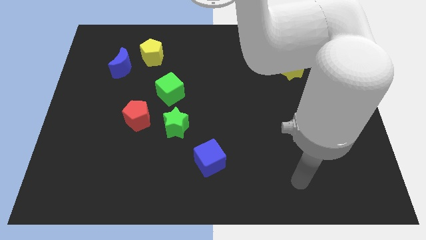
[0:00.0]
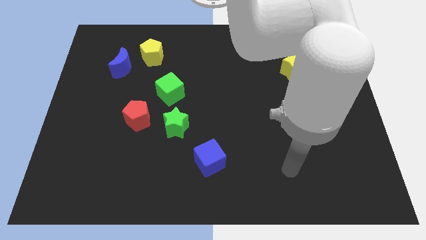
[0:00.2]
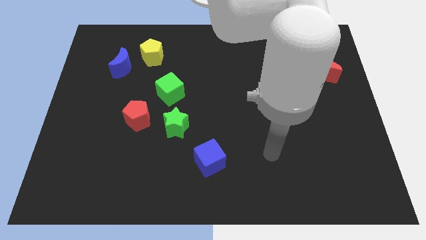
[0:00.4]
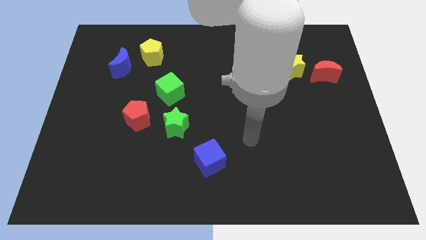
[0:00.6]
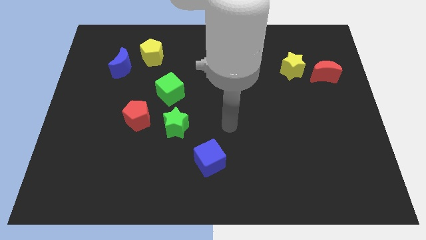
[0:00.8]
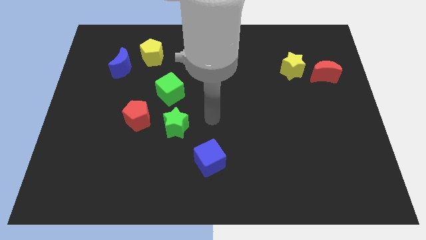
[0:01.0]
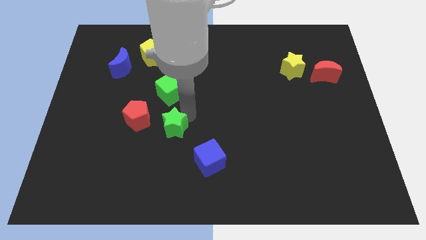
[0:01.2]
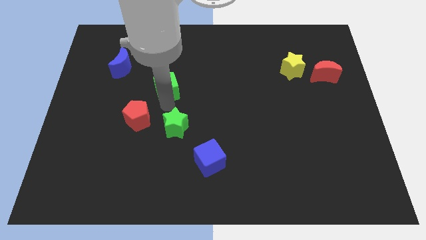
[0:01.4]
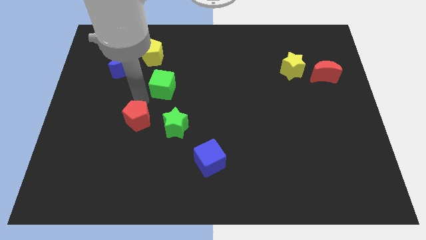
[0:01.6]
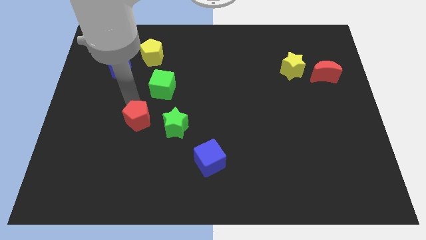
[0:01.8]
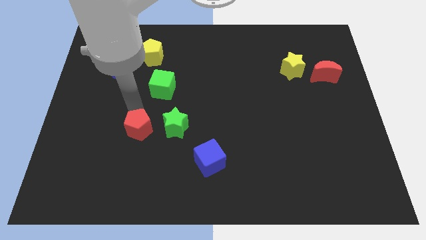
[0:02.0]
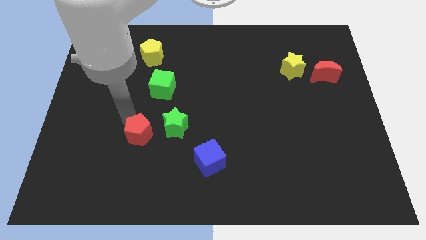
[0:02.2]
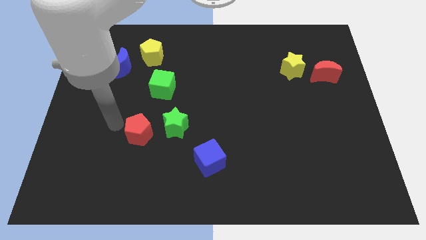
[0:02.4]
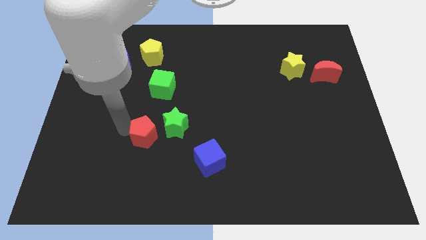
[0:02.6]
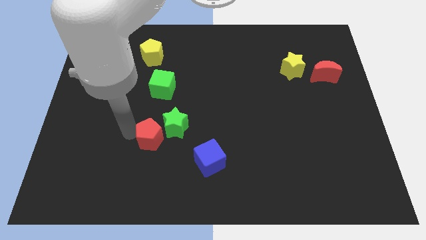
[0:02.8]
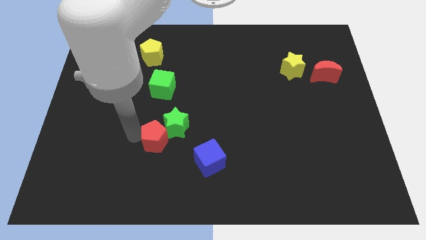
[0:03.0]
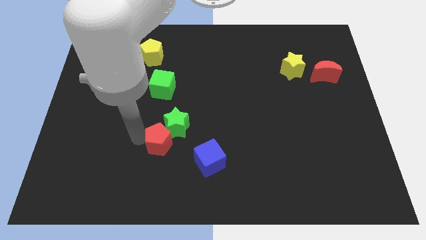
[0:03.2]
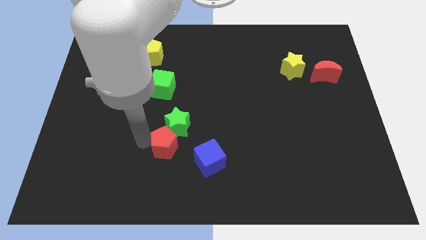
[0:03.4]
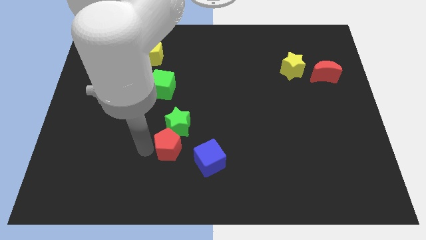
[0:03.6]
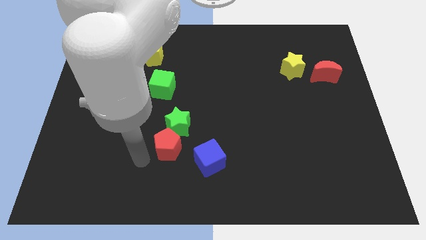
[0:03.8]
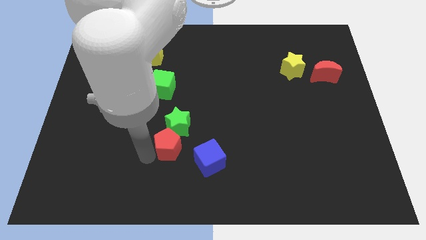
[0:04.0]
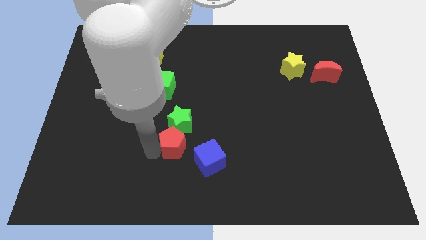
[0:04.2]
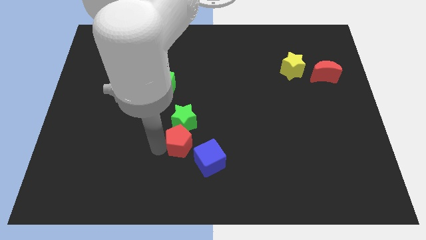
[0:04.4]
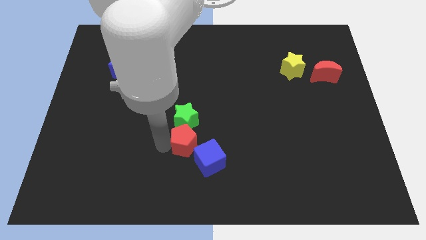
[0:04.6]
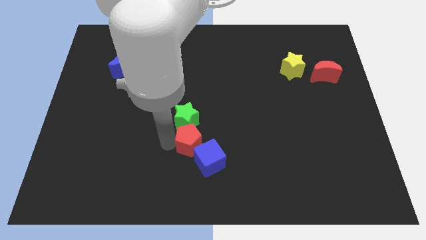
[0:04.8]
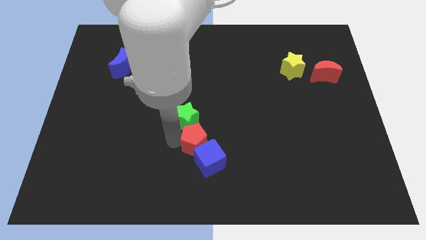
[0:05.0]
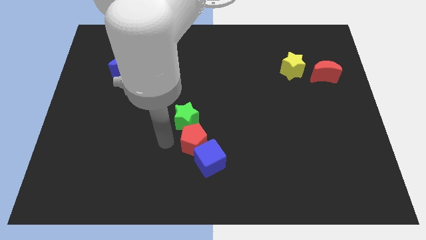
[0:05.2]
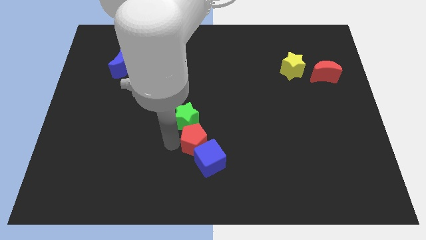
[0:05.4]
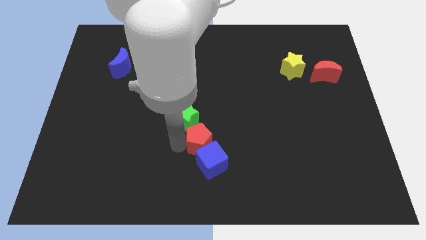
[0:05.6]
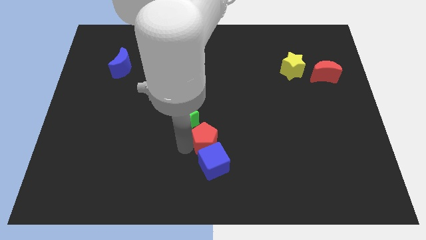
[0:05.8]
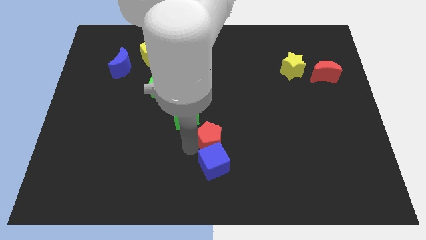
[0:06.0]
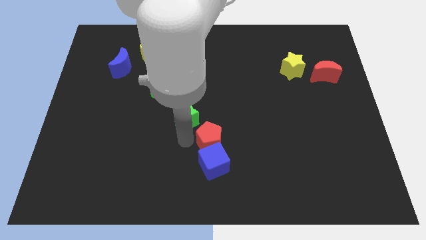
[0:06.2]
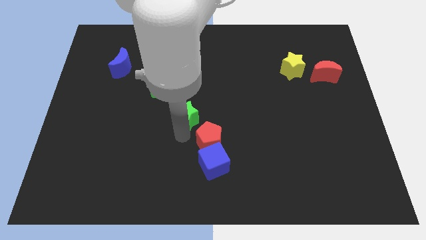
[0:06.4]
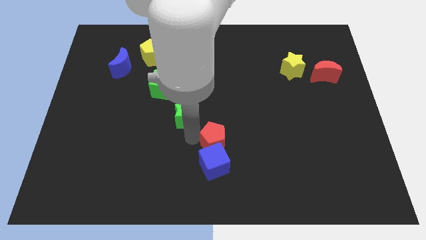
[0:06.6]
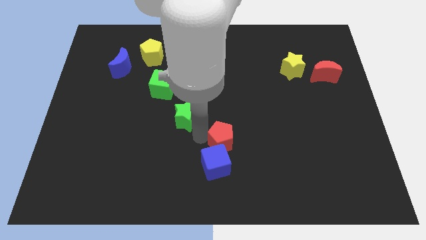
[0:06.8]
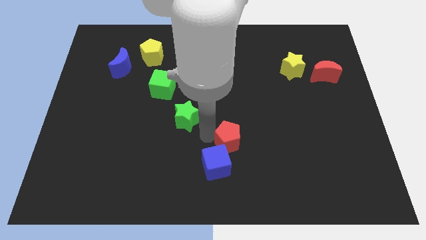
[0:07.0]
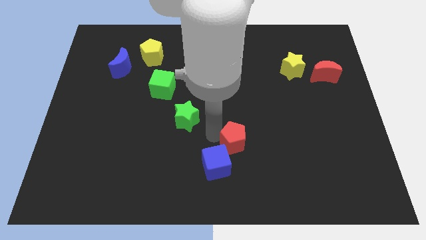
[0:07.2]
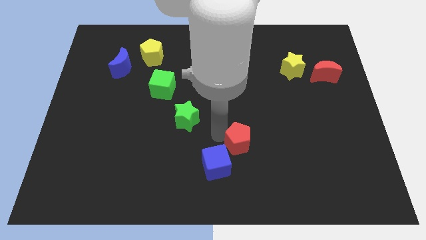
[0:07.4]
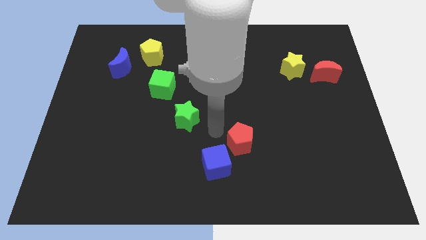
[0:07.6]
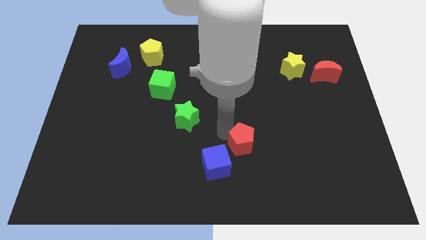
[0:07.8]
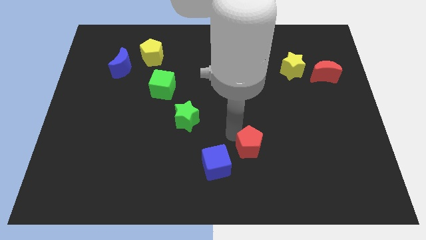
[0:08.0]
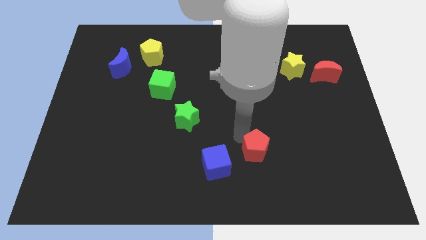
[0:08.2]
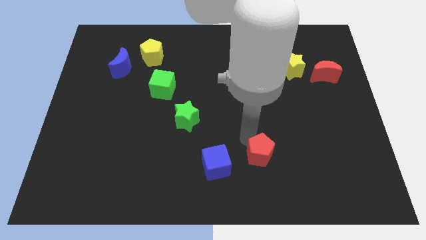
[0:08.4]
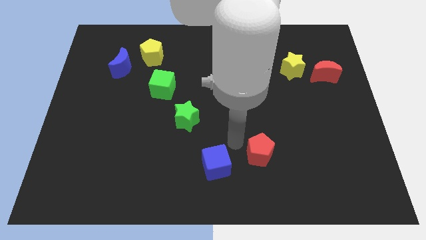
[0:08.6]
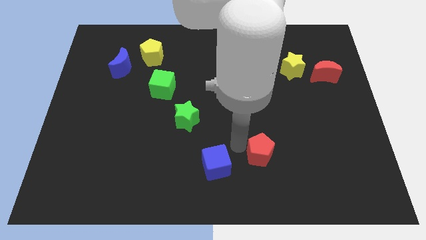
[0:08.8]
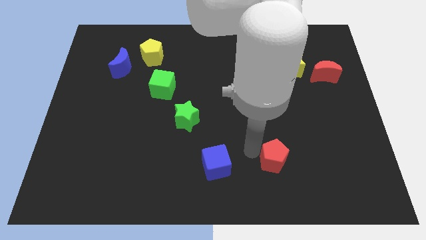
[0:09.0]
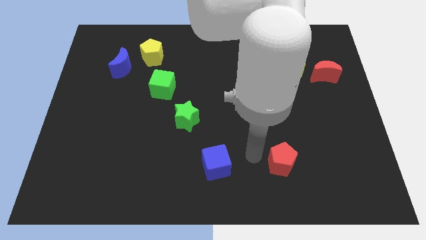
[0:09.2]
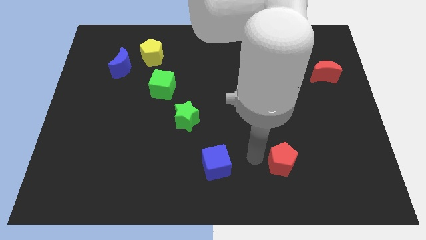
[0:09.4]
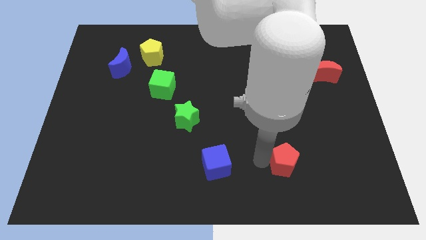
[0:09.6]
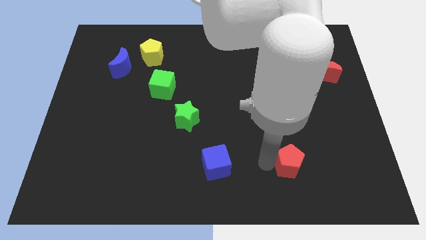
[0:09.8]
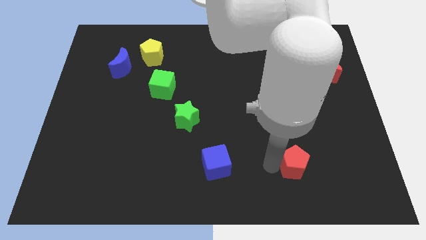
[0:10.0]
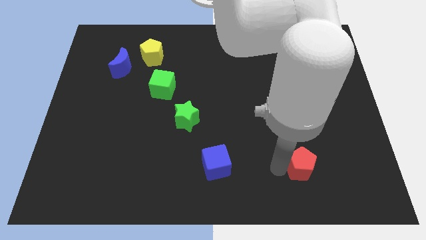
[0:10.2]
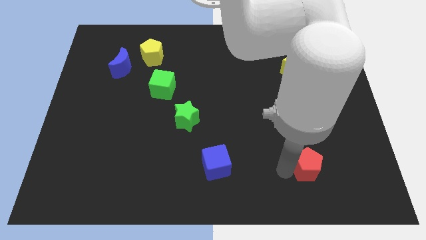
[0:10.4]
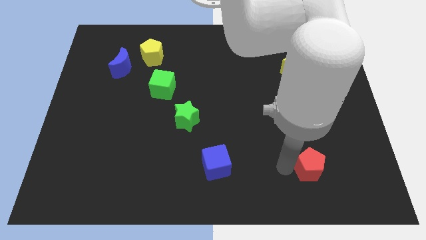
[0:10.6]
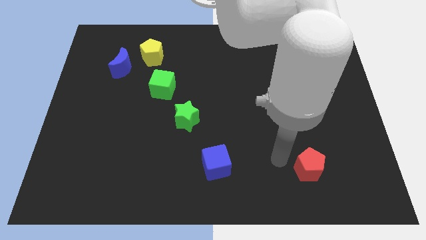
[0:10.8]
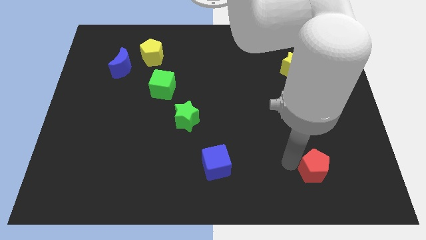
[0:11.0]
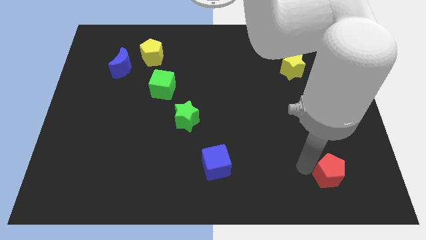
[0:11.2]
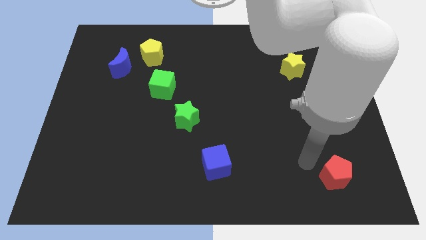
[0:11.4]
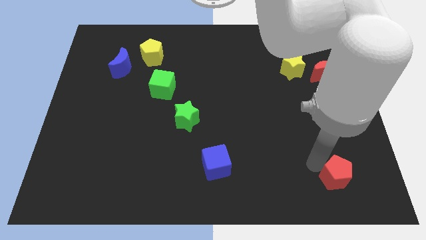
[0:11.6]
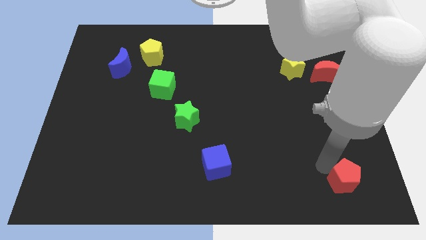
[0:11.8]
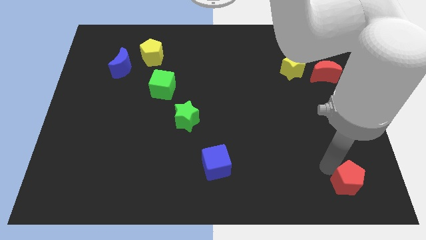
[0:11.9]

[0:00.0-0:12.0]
push the red pentagon to the lower right corner

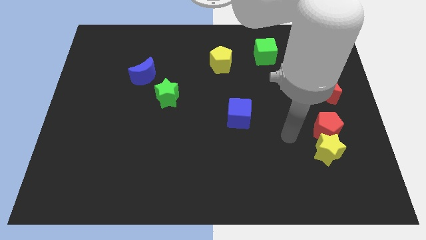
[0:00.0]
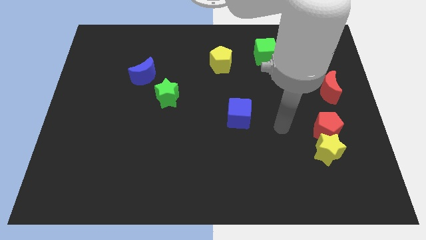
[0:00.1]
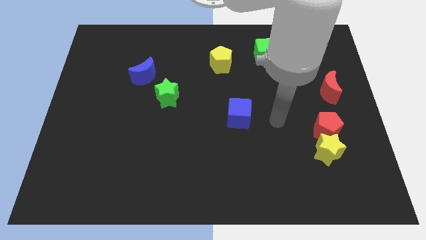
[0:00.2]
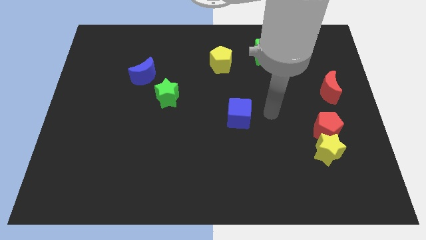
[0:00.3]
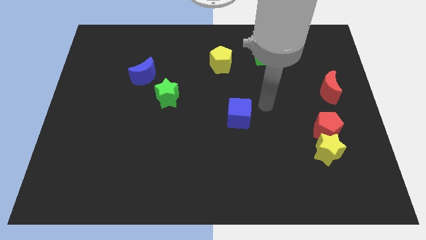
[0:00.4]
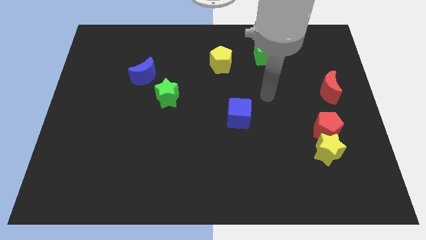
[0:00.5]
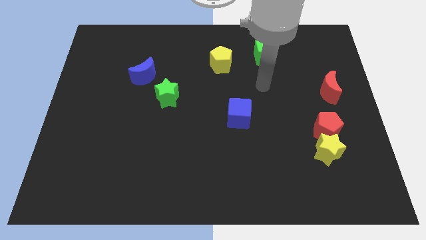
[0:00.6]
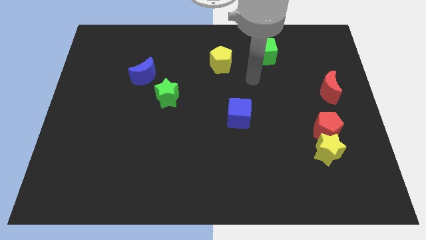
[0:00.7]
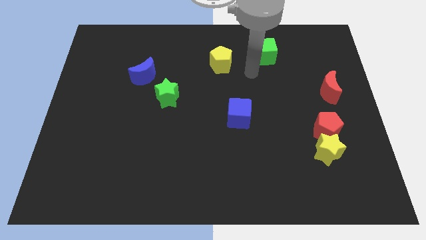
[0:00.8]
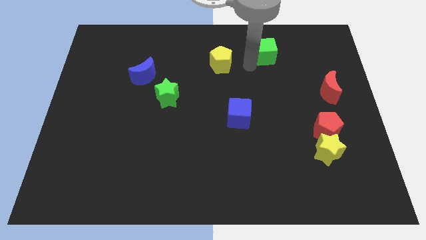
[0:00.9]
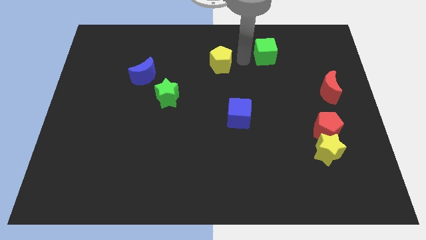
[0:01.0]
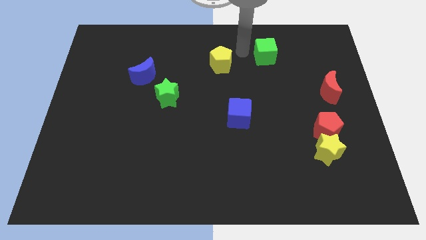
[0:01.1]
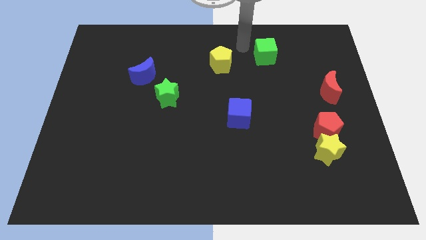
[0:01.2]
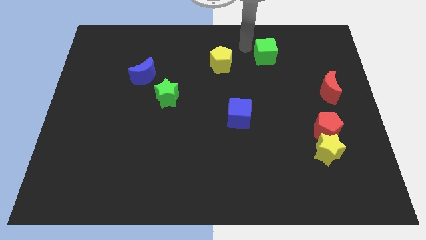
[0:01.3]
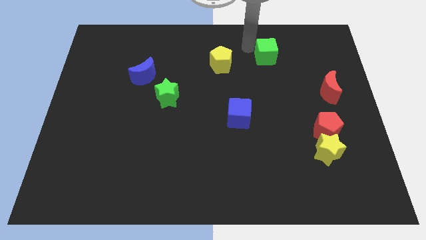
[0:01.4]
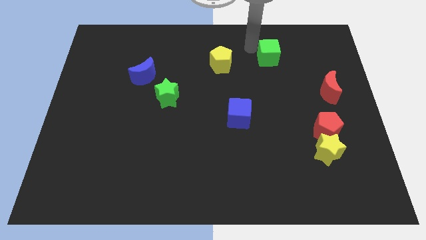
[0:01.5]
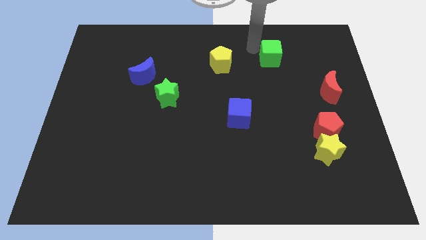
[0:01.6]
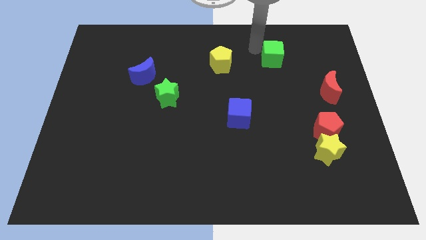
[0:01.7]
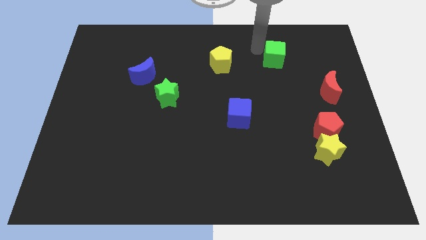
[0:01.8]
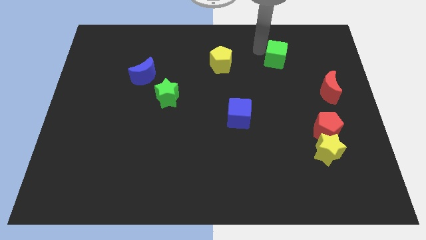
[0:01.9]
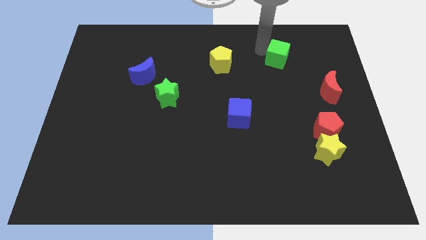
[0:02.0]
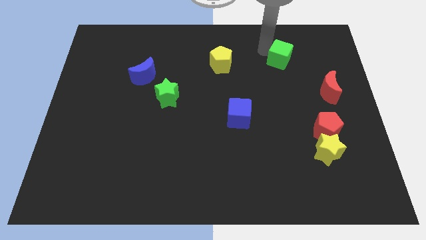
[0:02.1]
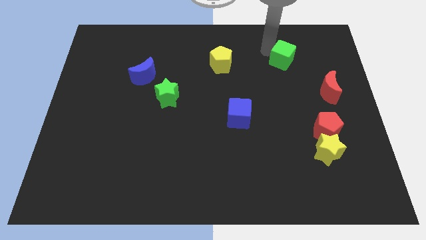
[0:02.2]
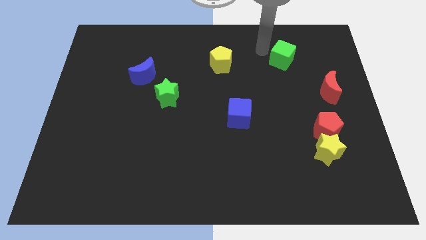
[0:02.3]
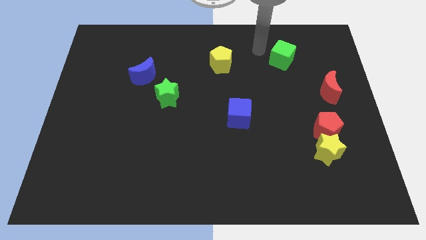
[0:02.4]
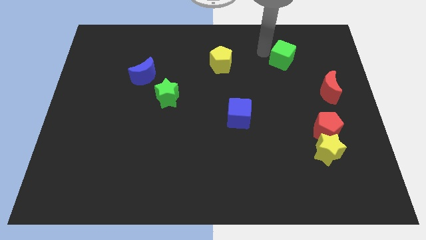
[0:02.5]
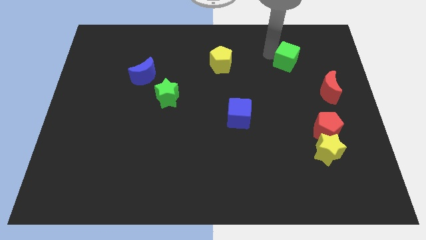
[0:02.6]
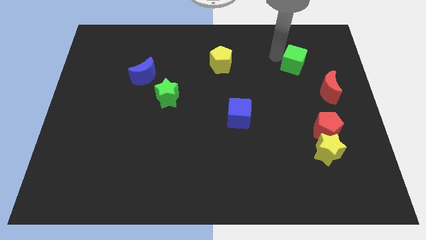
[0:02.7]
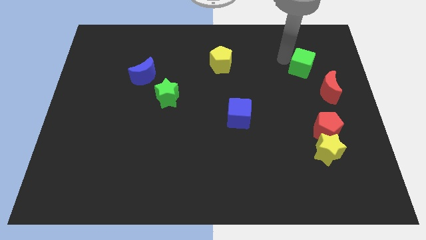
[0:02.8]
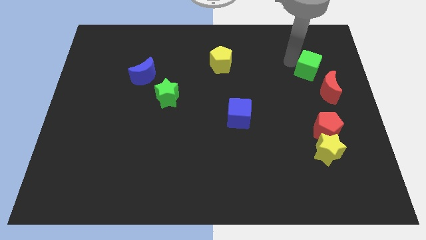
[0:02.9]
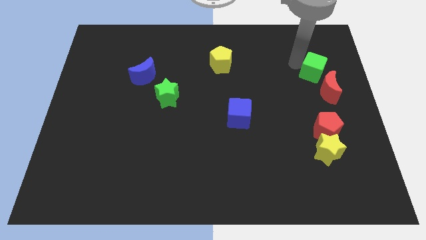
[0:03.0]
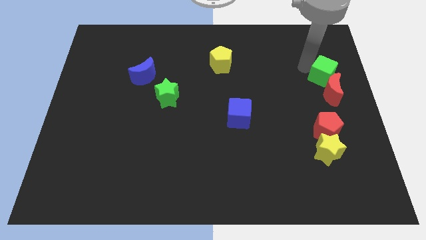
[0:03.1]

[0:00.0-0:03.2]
put the green cube to the right side
